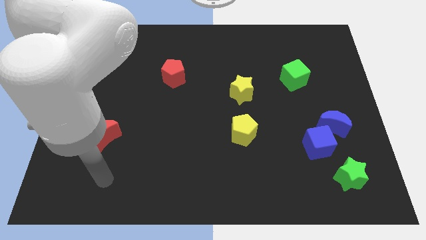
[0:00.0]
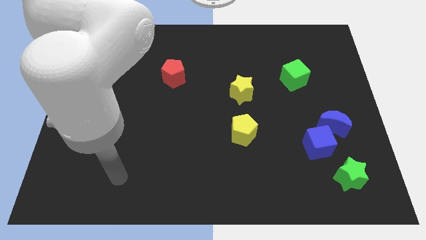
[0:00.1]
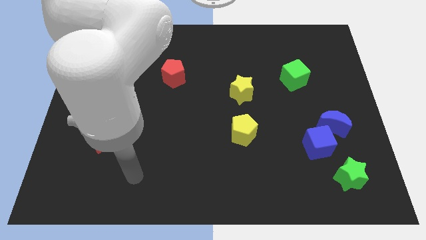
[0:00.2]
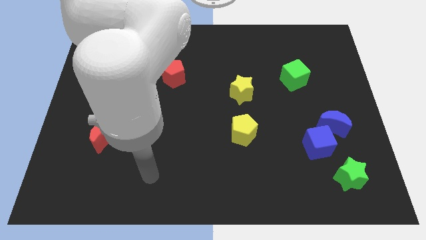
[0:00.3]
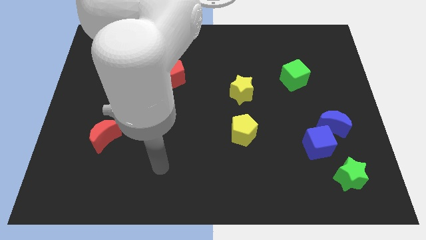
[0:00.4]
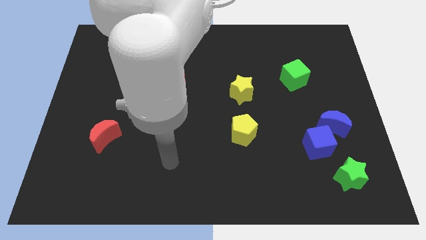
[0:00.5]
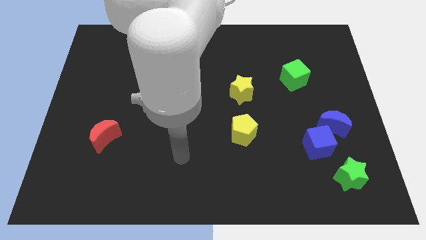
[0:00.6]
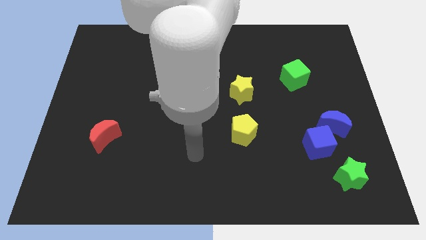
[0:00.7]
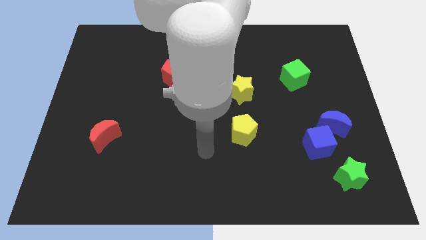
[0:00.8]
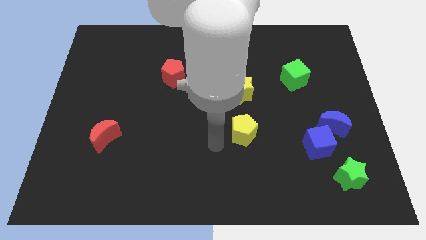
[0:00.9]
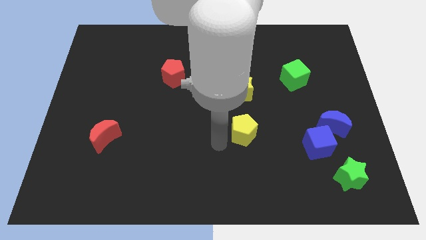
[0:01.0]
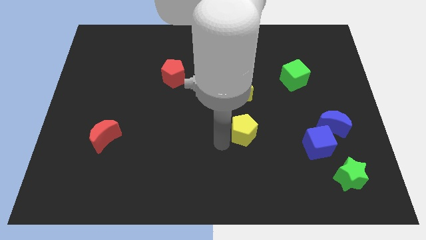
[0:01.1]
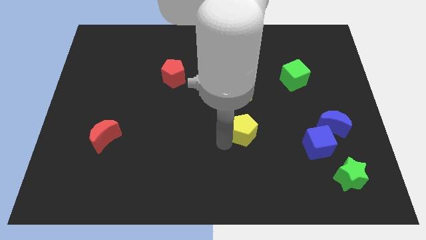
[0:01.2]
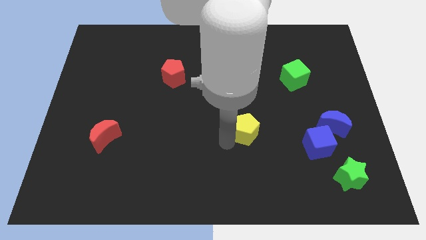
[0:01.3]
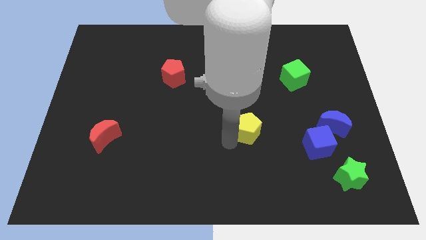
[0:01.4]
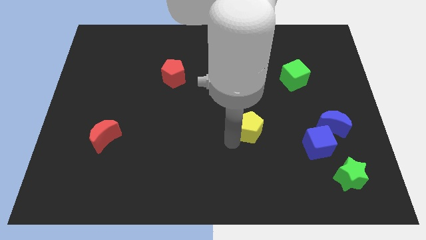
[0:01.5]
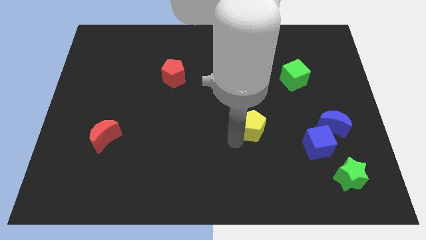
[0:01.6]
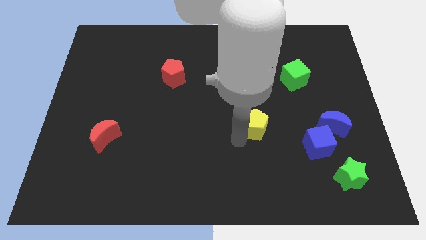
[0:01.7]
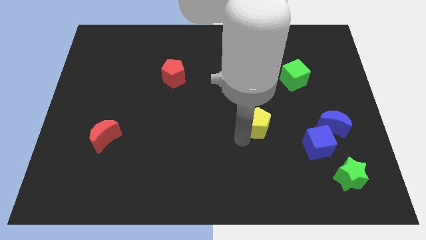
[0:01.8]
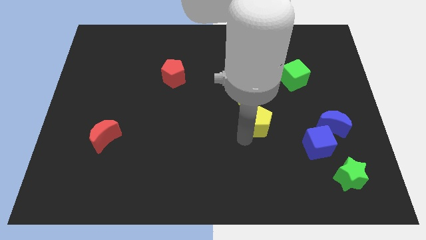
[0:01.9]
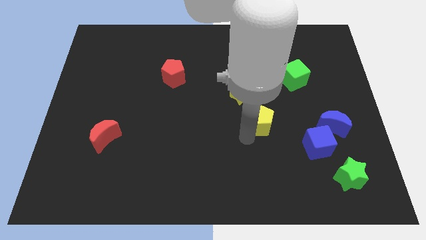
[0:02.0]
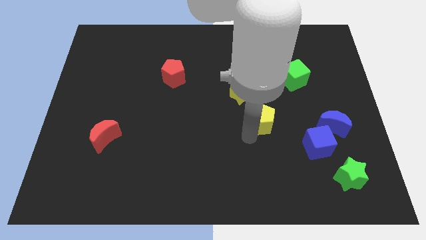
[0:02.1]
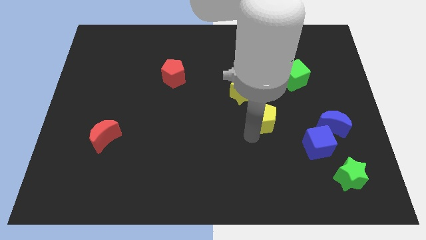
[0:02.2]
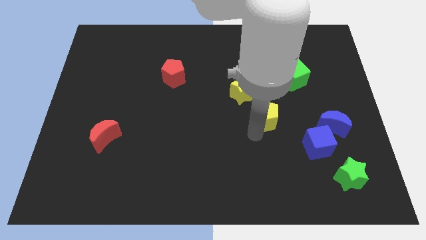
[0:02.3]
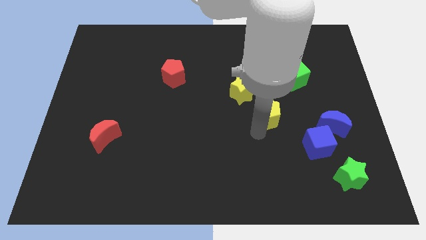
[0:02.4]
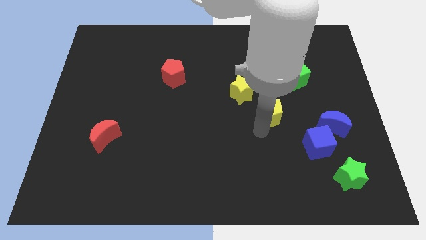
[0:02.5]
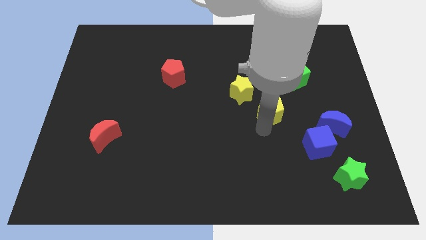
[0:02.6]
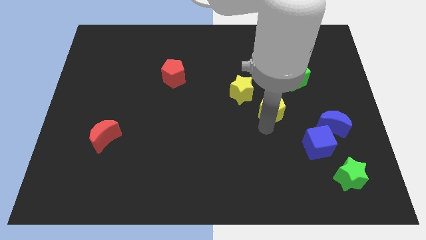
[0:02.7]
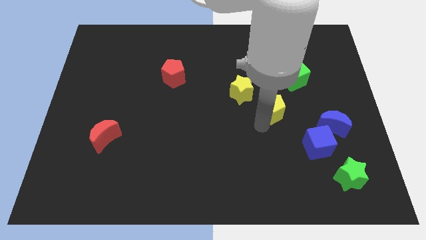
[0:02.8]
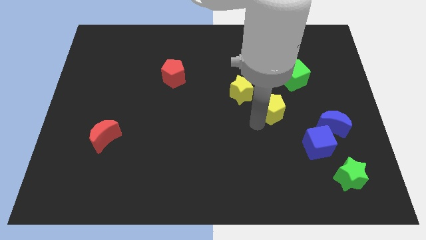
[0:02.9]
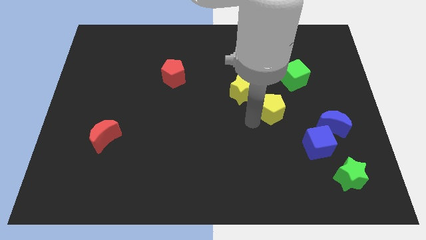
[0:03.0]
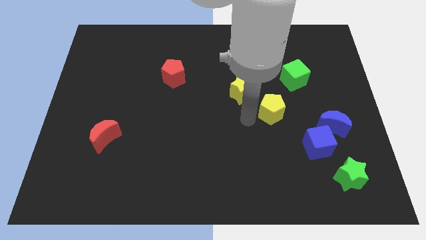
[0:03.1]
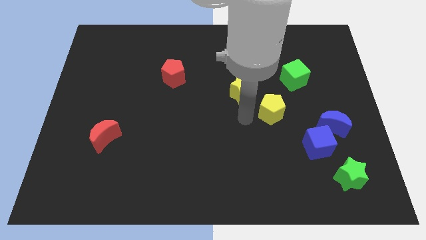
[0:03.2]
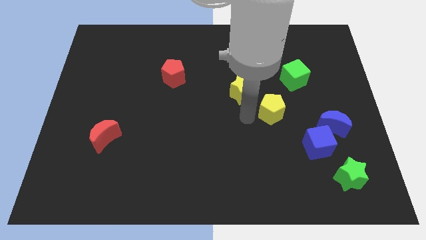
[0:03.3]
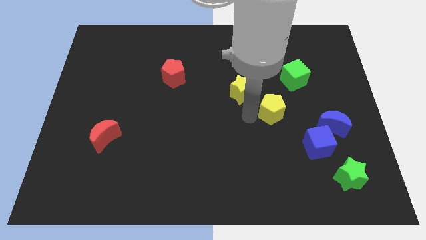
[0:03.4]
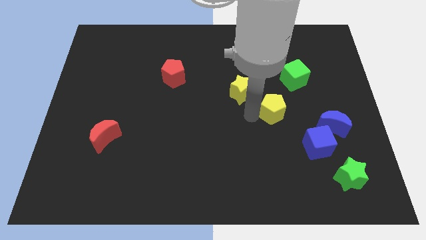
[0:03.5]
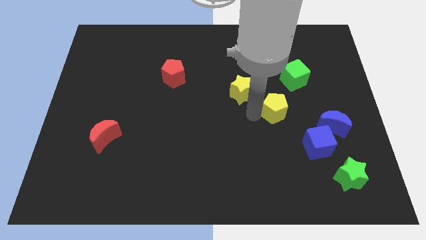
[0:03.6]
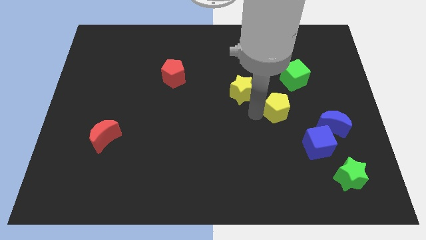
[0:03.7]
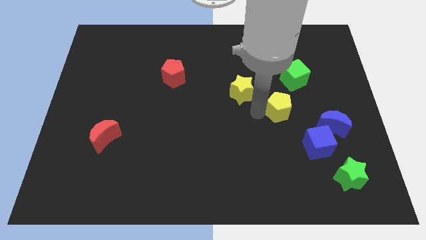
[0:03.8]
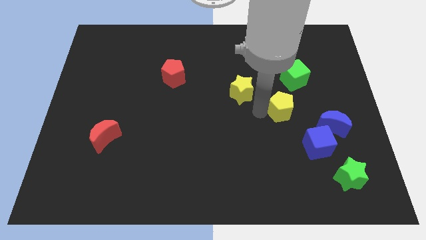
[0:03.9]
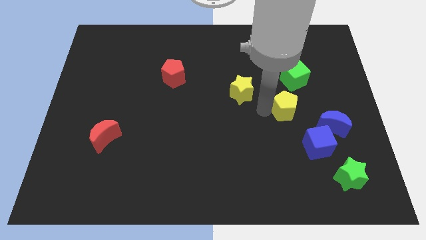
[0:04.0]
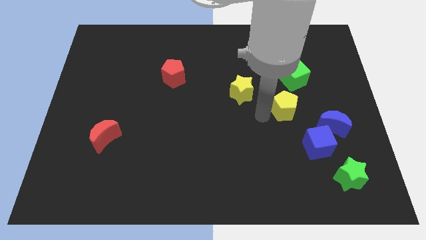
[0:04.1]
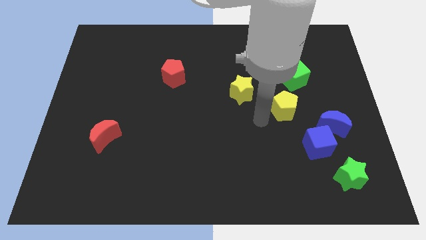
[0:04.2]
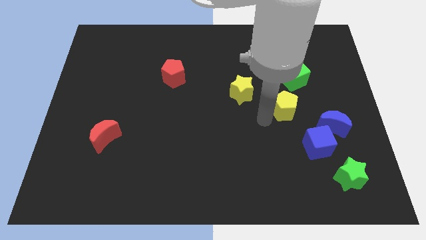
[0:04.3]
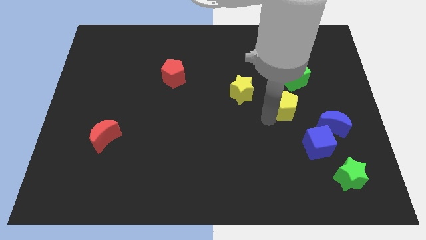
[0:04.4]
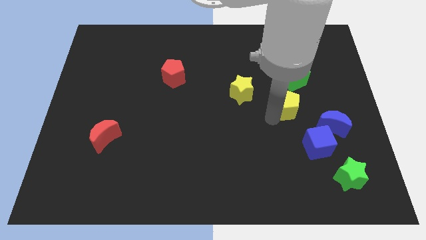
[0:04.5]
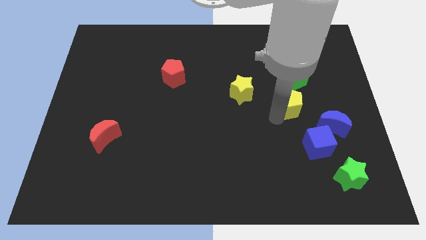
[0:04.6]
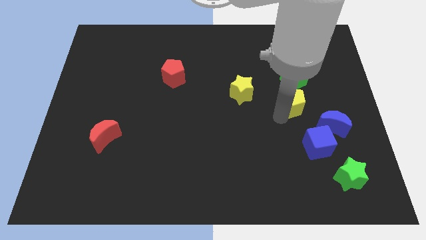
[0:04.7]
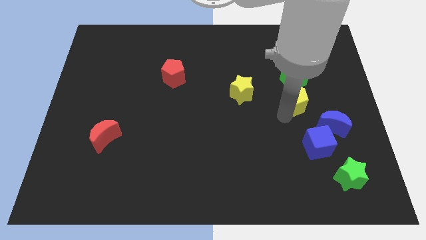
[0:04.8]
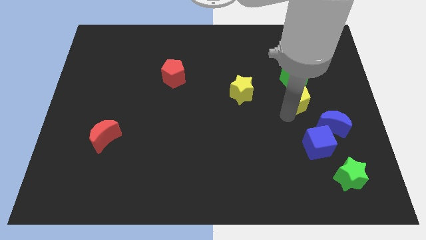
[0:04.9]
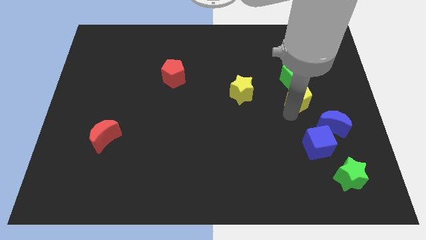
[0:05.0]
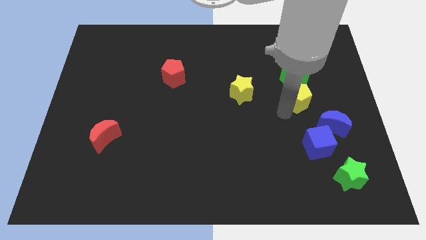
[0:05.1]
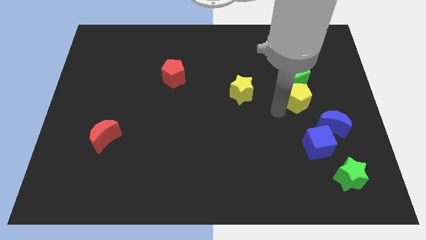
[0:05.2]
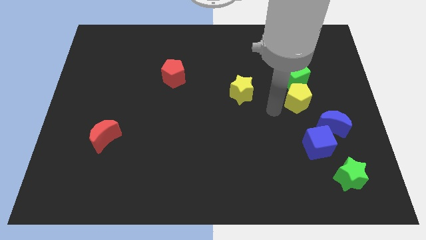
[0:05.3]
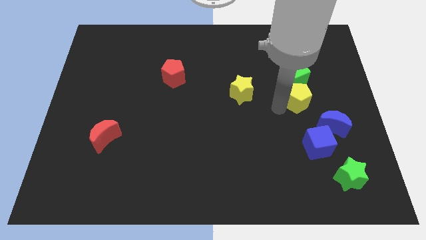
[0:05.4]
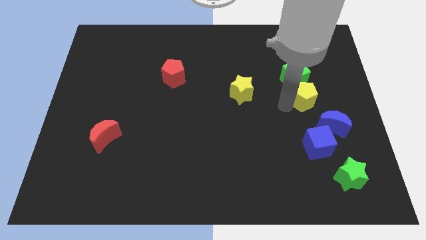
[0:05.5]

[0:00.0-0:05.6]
move the yellow pentagon to the bottom right side of the green cube

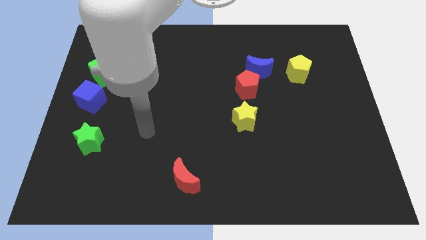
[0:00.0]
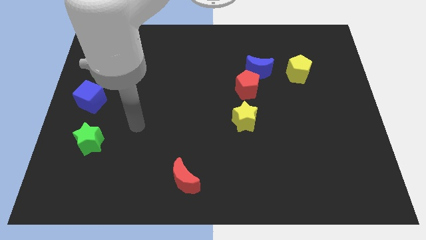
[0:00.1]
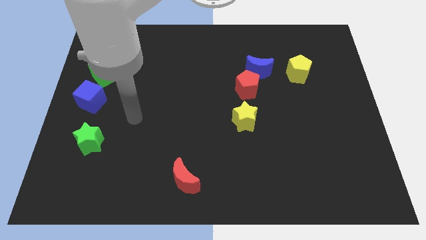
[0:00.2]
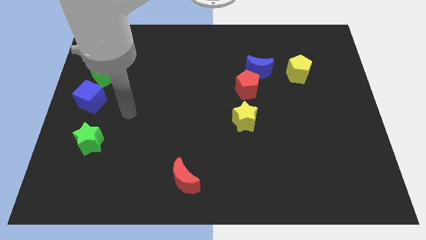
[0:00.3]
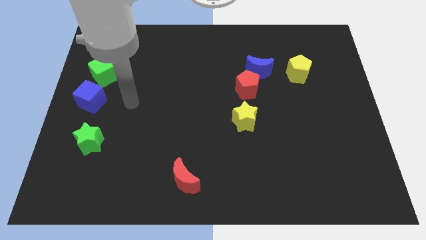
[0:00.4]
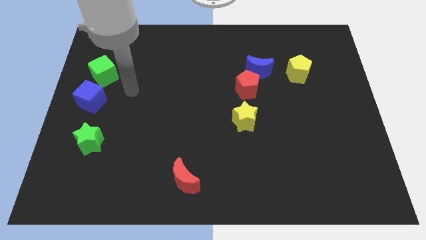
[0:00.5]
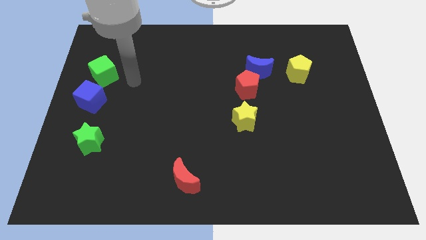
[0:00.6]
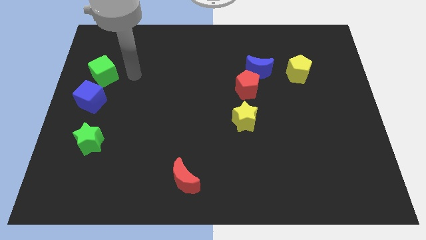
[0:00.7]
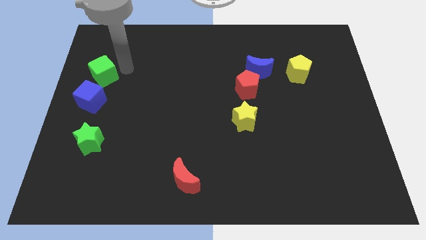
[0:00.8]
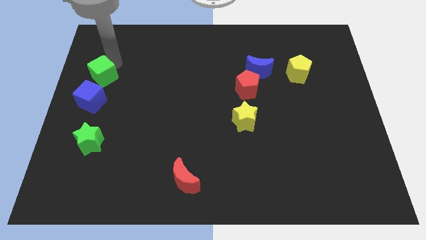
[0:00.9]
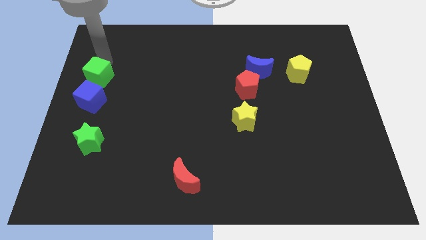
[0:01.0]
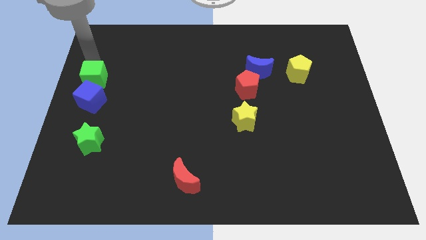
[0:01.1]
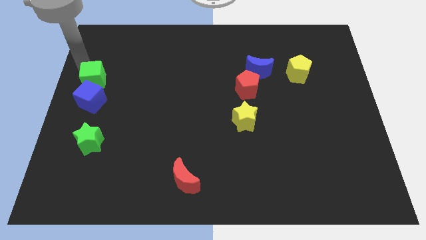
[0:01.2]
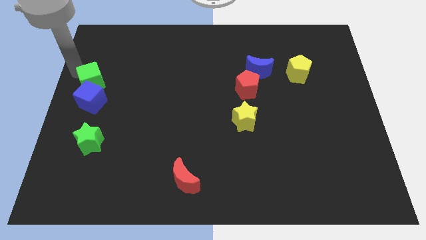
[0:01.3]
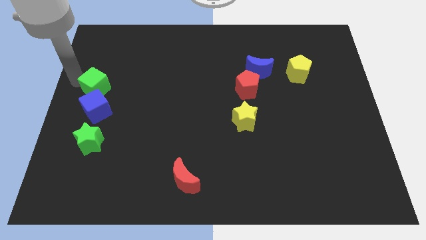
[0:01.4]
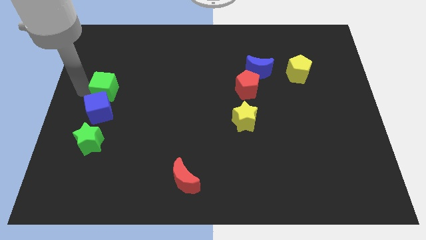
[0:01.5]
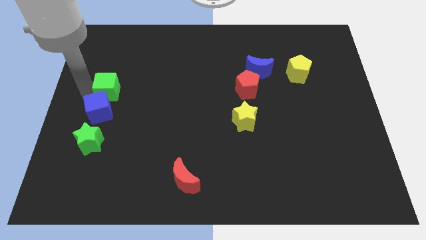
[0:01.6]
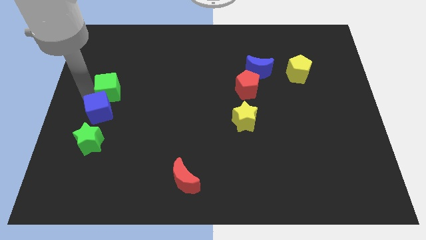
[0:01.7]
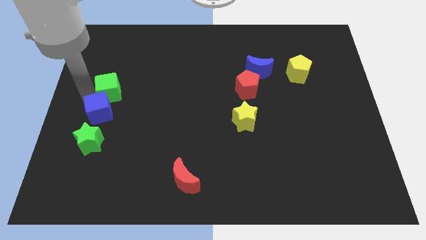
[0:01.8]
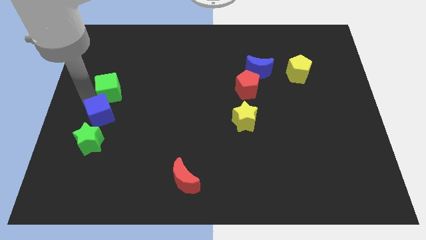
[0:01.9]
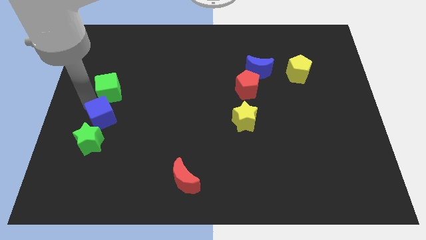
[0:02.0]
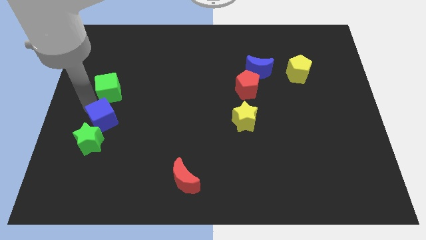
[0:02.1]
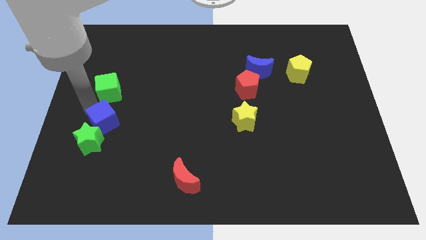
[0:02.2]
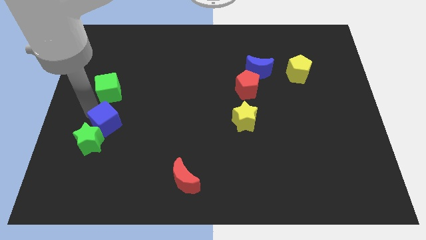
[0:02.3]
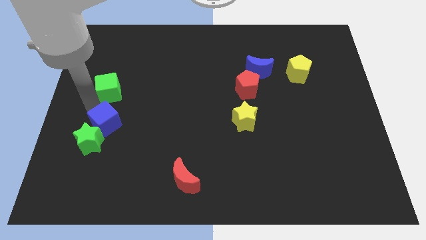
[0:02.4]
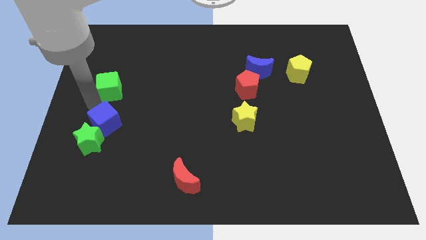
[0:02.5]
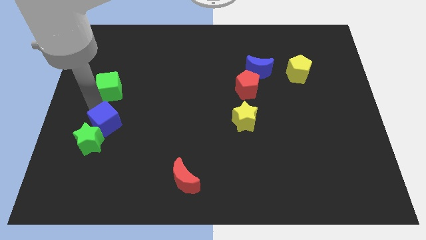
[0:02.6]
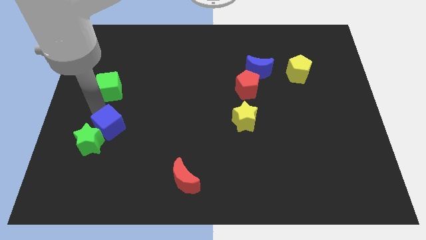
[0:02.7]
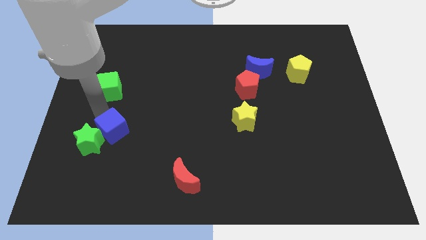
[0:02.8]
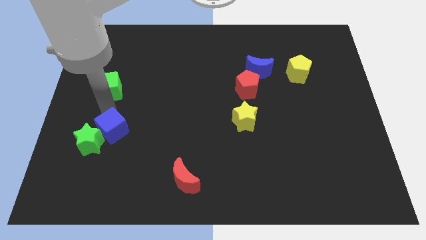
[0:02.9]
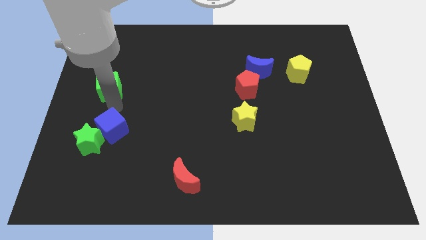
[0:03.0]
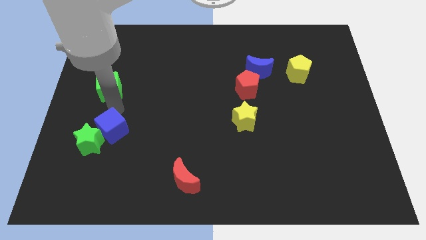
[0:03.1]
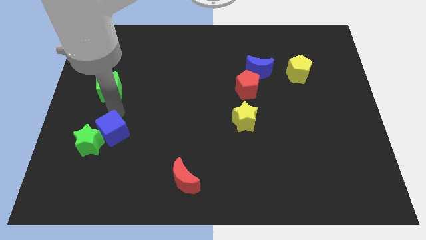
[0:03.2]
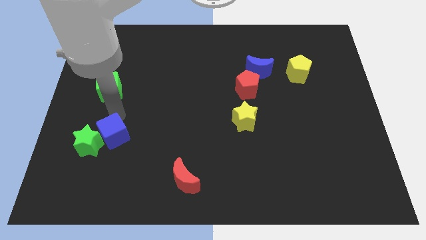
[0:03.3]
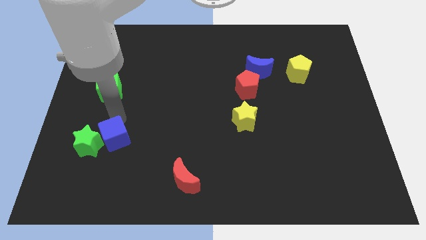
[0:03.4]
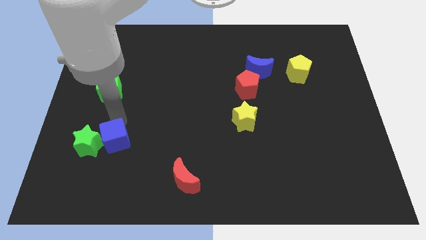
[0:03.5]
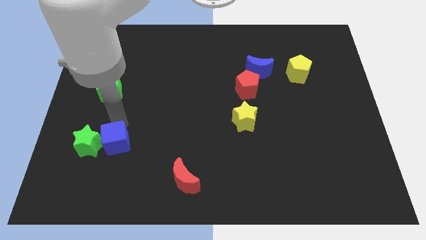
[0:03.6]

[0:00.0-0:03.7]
slide the blue cube diagonally down and to the right of the green star
